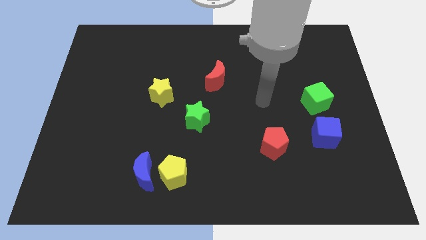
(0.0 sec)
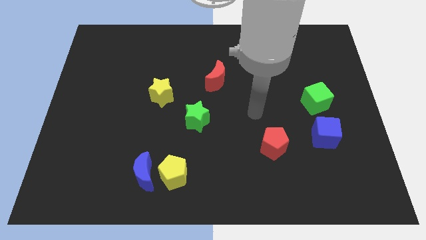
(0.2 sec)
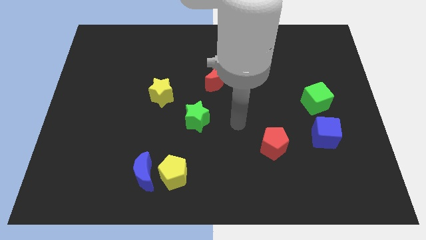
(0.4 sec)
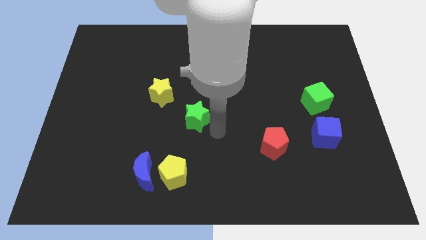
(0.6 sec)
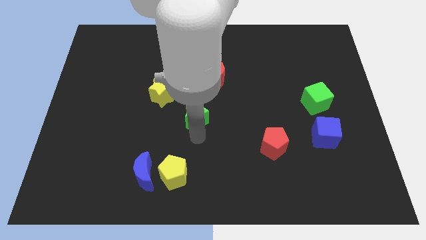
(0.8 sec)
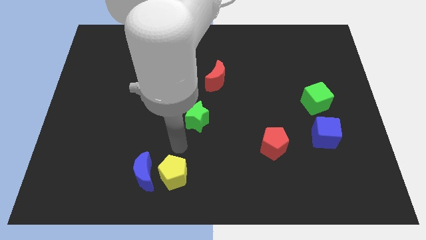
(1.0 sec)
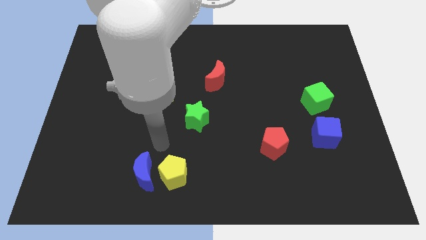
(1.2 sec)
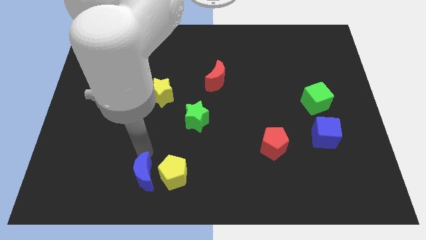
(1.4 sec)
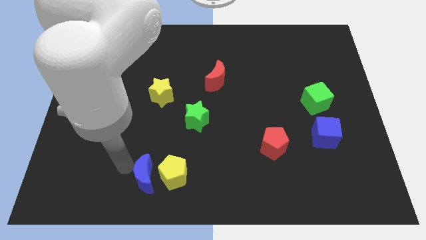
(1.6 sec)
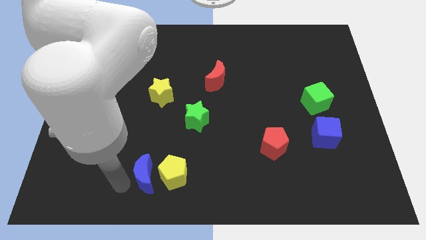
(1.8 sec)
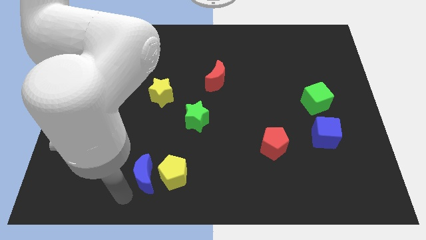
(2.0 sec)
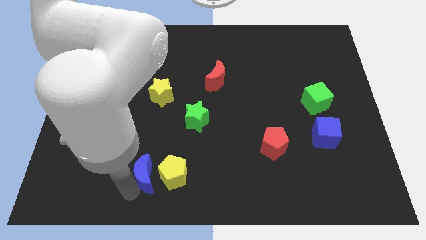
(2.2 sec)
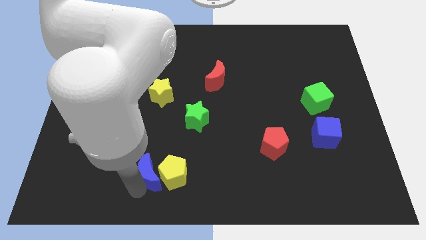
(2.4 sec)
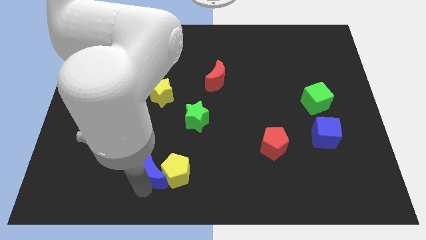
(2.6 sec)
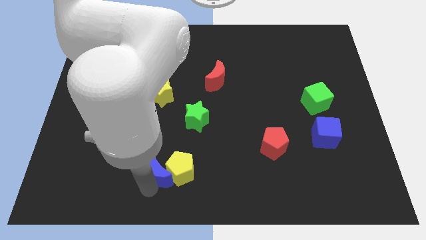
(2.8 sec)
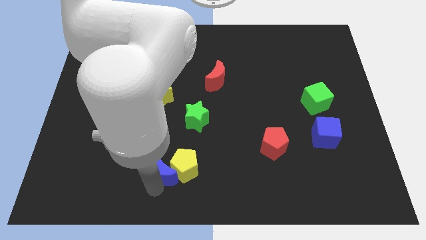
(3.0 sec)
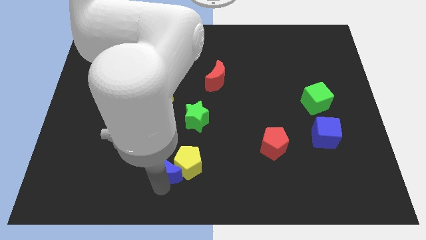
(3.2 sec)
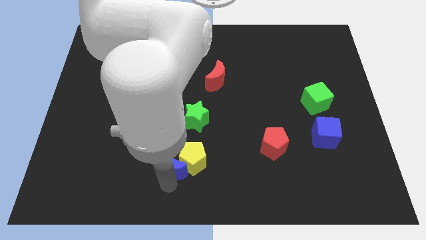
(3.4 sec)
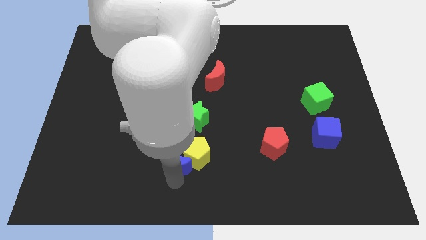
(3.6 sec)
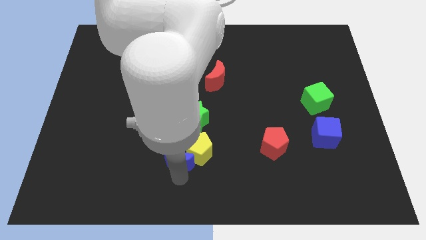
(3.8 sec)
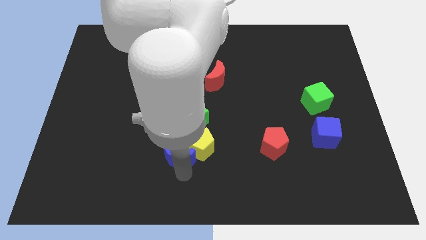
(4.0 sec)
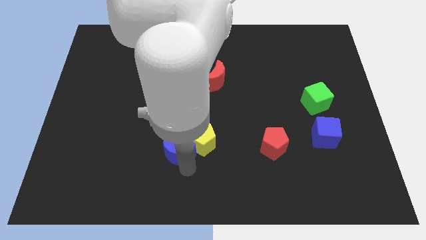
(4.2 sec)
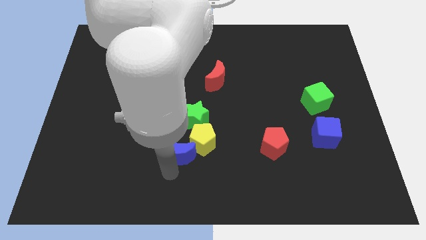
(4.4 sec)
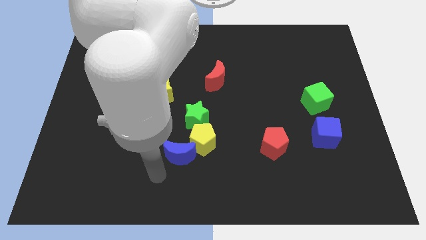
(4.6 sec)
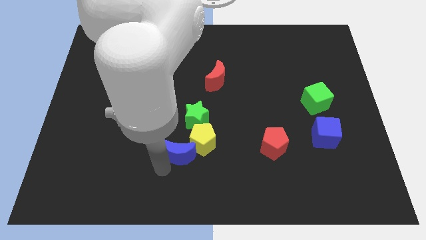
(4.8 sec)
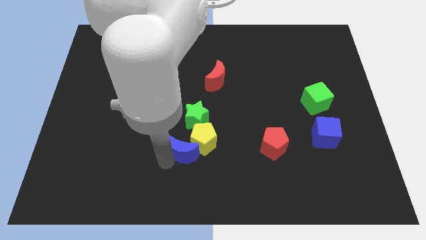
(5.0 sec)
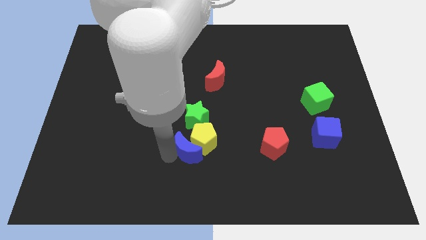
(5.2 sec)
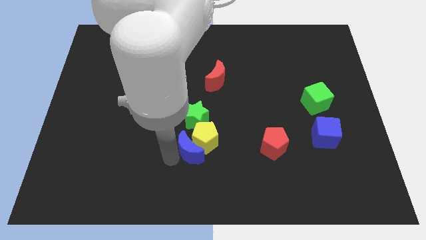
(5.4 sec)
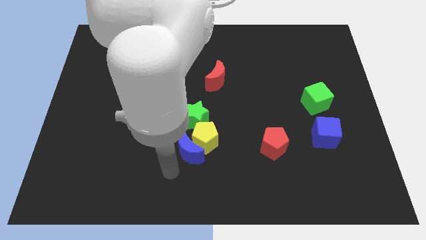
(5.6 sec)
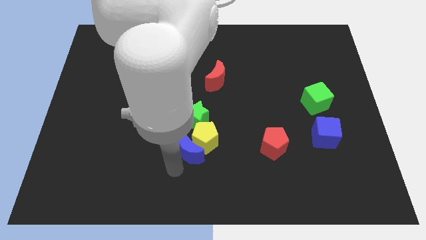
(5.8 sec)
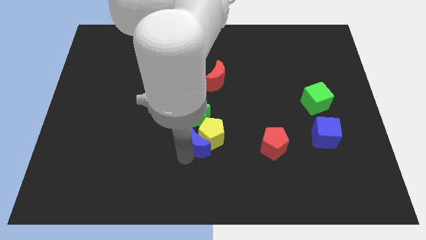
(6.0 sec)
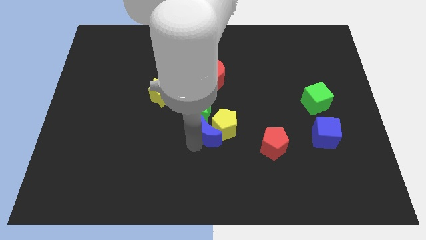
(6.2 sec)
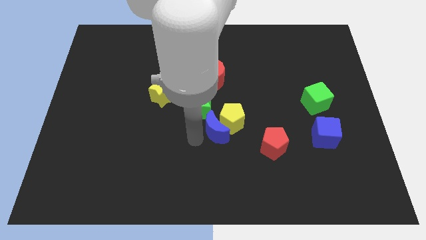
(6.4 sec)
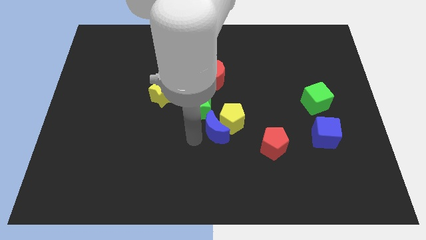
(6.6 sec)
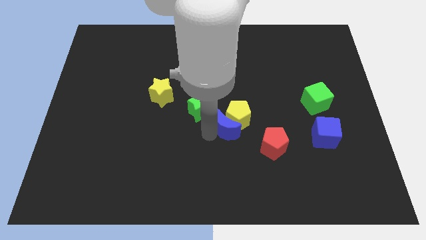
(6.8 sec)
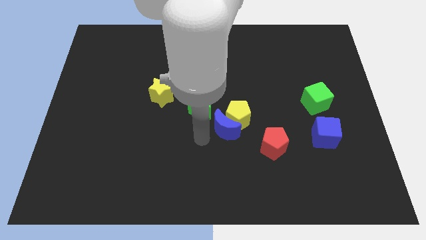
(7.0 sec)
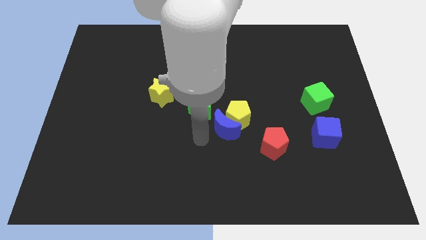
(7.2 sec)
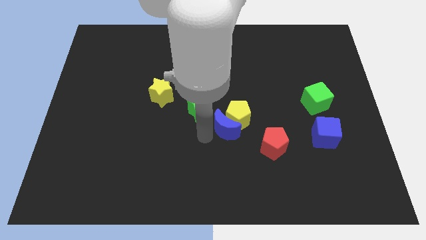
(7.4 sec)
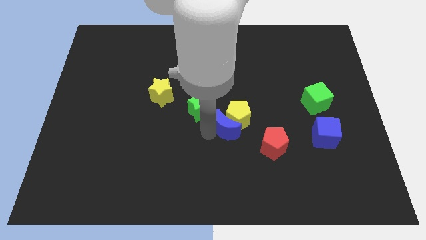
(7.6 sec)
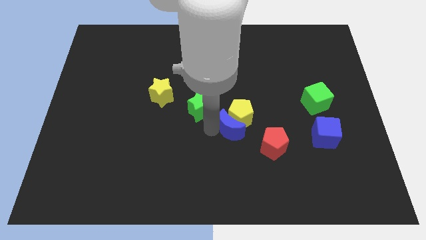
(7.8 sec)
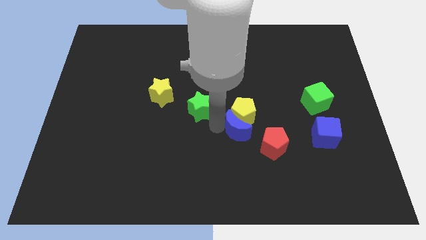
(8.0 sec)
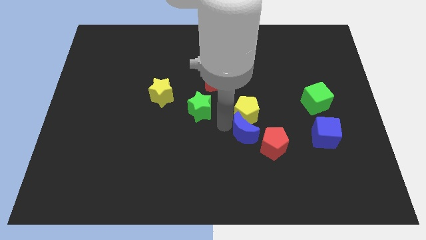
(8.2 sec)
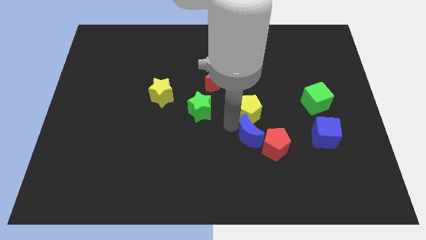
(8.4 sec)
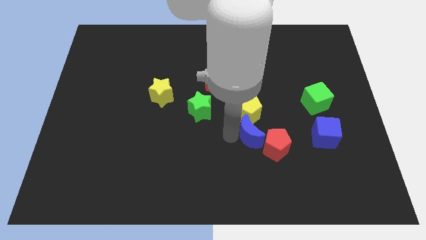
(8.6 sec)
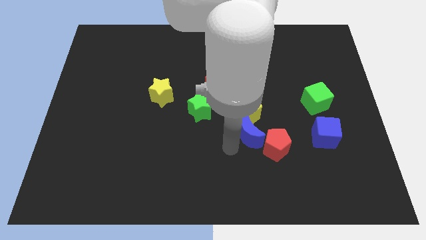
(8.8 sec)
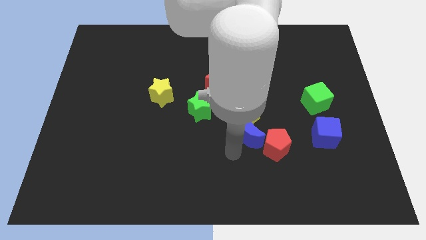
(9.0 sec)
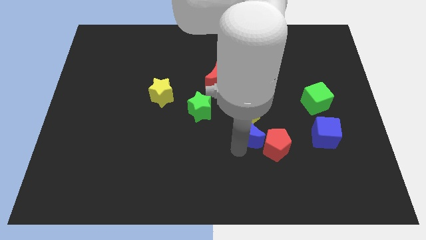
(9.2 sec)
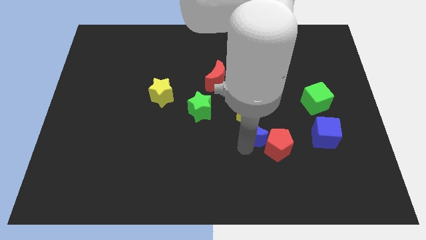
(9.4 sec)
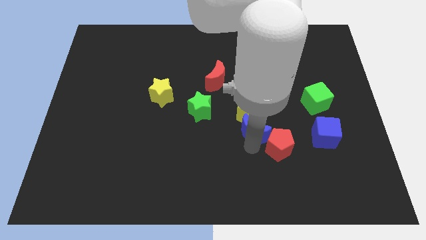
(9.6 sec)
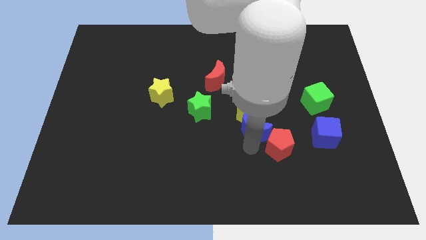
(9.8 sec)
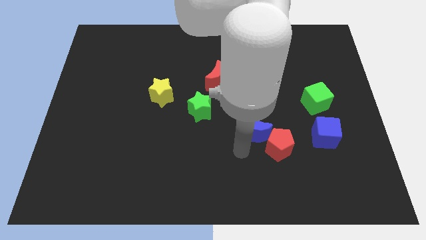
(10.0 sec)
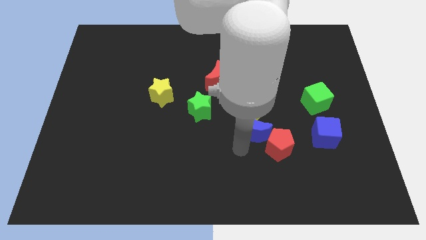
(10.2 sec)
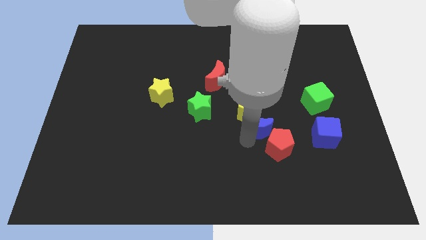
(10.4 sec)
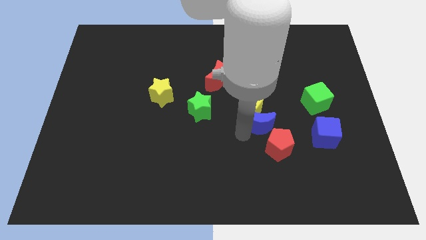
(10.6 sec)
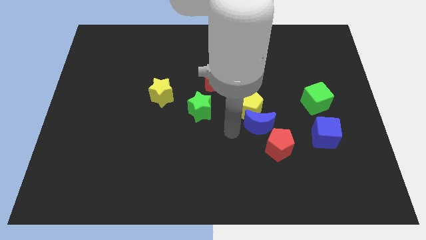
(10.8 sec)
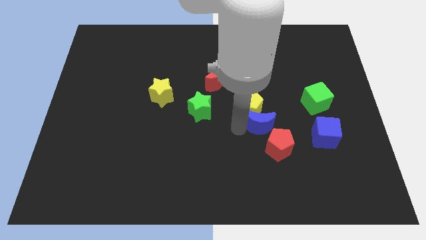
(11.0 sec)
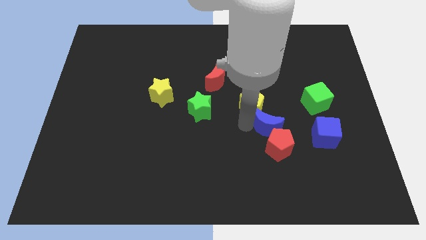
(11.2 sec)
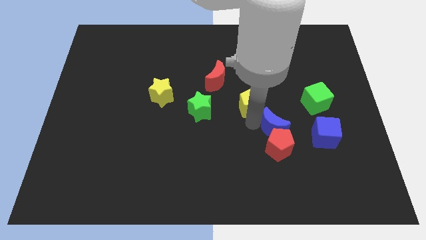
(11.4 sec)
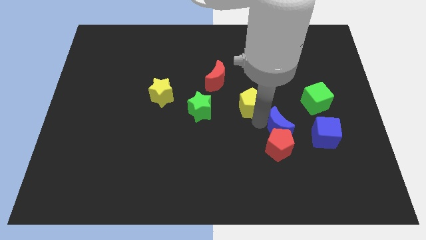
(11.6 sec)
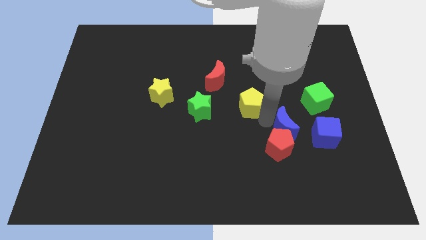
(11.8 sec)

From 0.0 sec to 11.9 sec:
move the blue moon to the top left of the blue cube

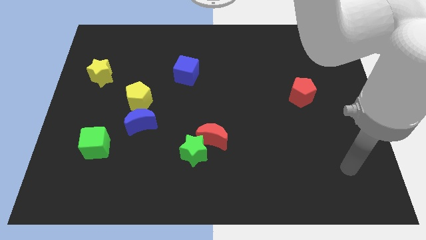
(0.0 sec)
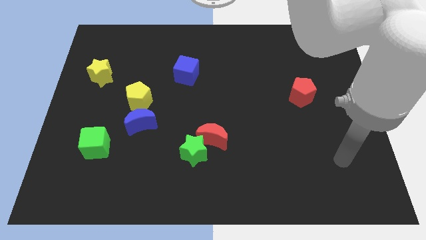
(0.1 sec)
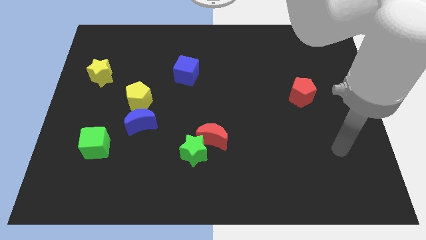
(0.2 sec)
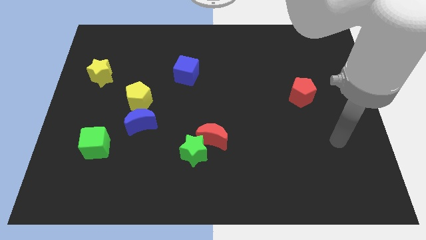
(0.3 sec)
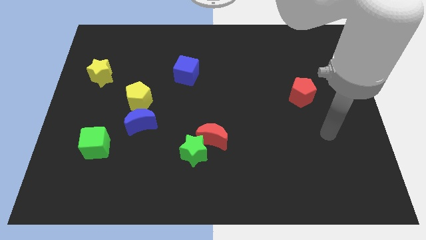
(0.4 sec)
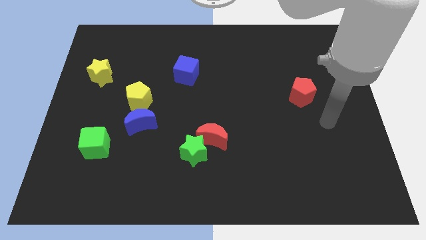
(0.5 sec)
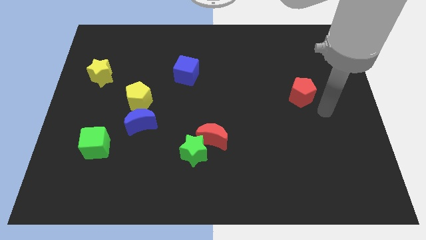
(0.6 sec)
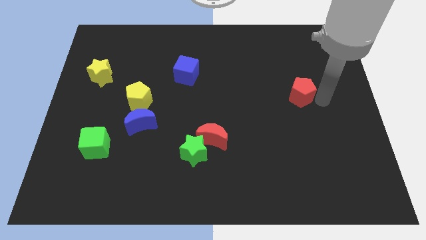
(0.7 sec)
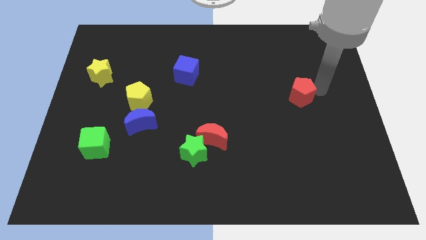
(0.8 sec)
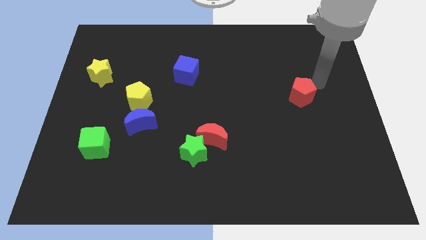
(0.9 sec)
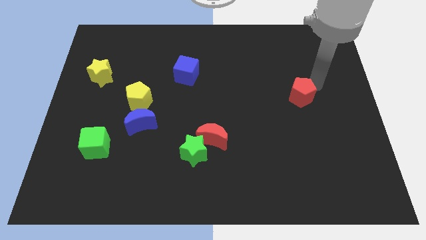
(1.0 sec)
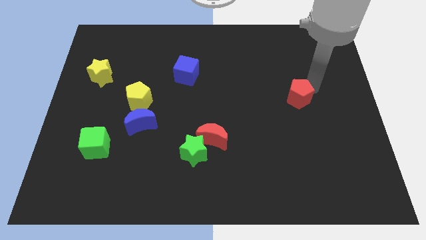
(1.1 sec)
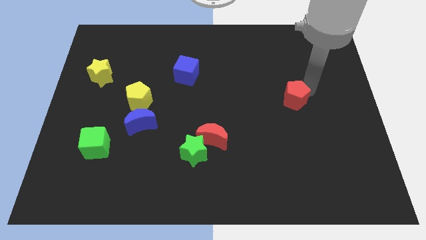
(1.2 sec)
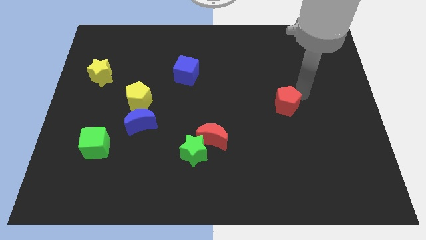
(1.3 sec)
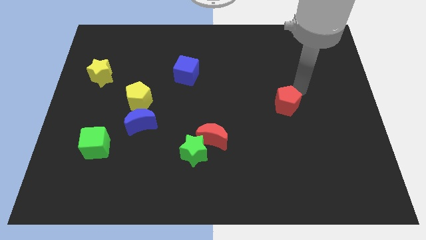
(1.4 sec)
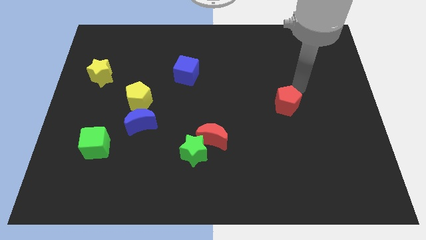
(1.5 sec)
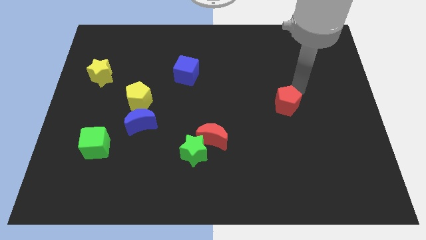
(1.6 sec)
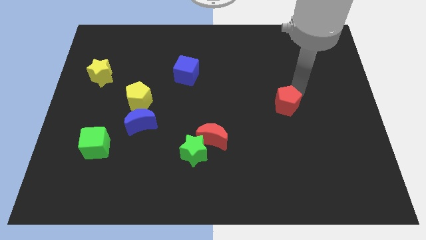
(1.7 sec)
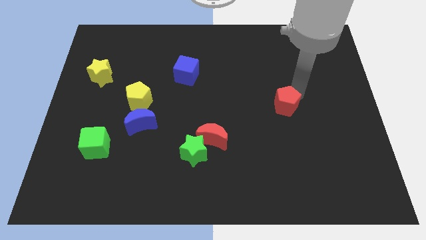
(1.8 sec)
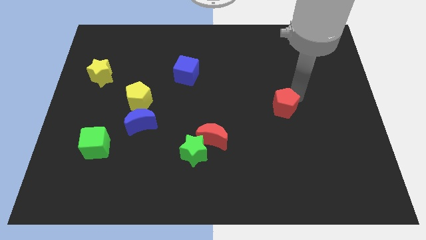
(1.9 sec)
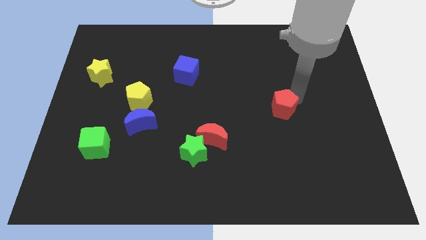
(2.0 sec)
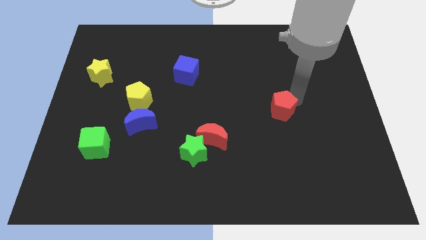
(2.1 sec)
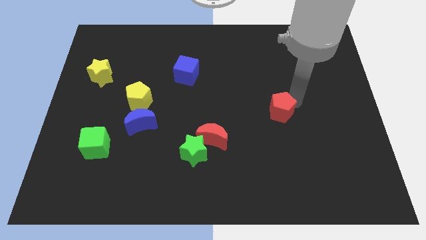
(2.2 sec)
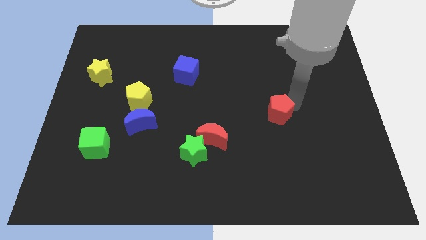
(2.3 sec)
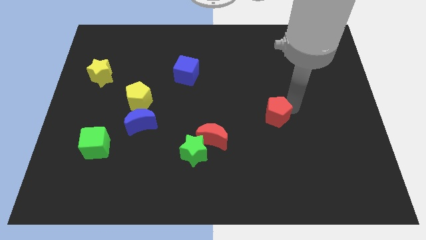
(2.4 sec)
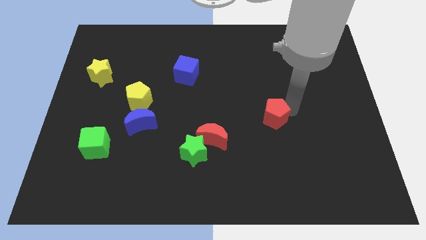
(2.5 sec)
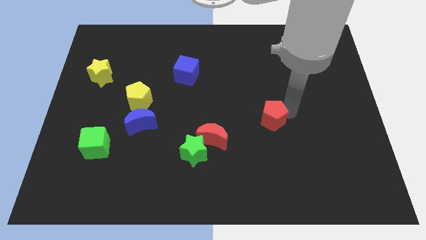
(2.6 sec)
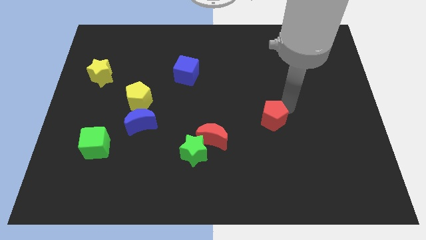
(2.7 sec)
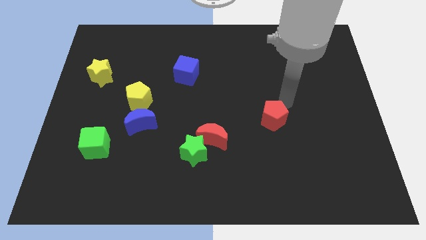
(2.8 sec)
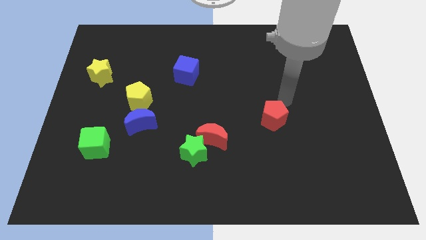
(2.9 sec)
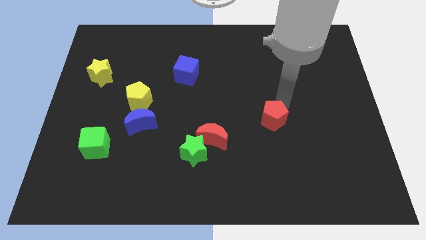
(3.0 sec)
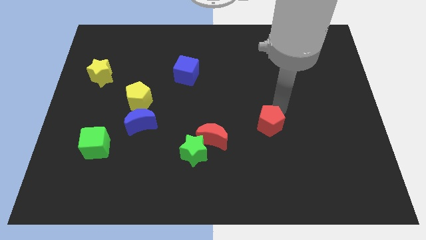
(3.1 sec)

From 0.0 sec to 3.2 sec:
push the red pentagon just right of the red moon
